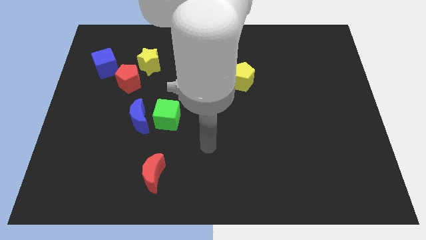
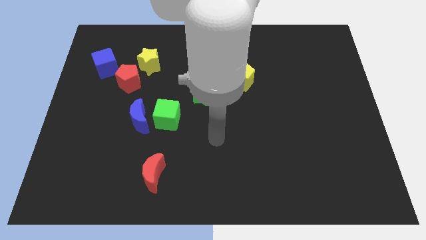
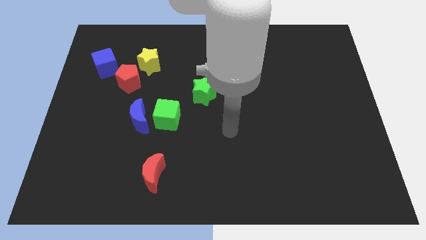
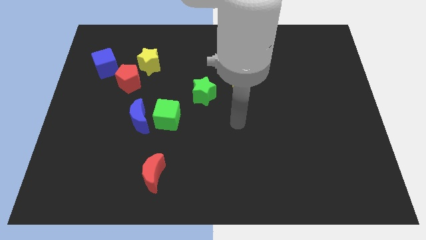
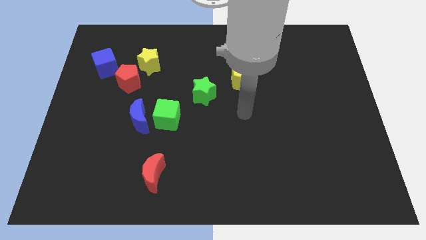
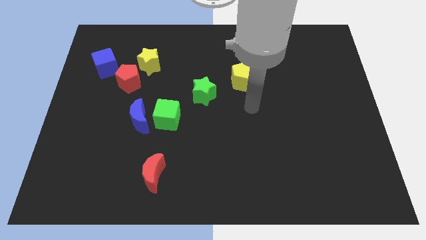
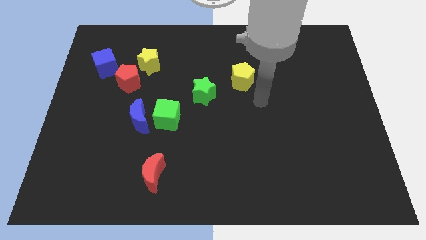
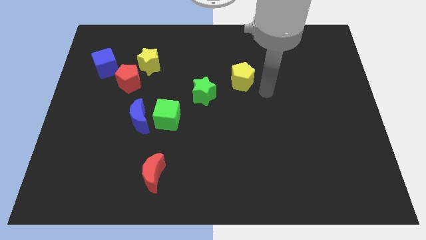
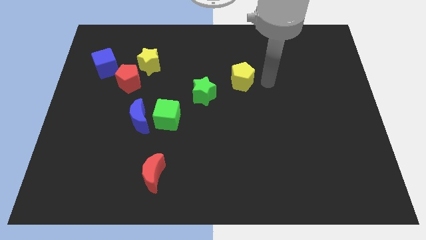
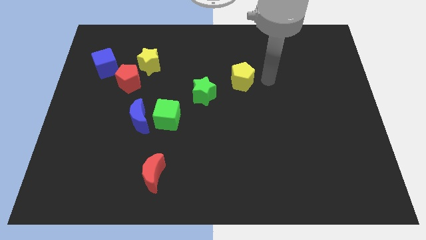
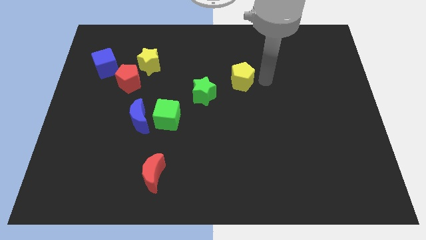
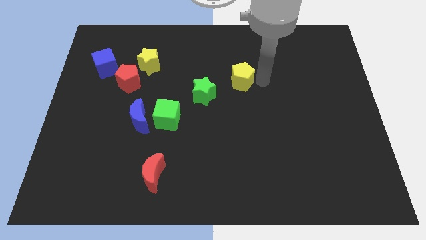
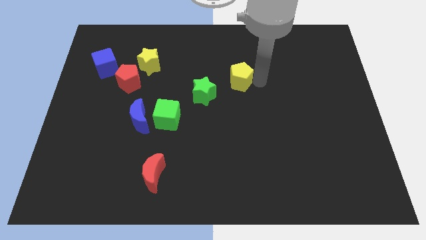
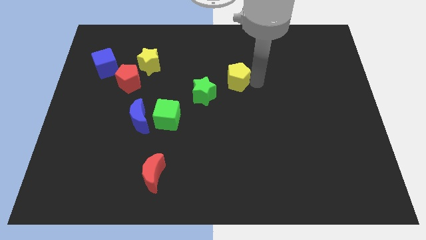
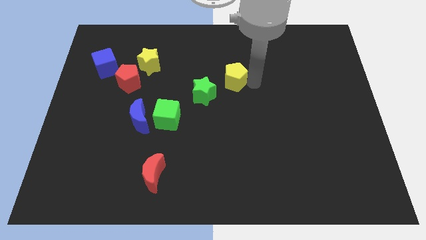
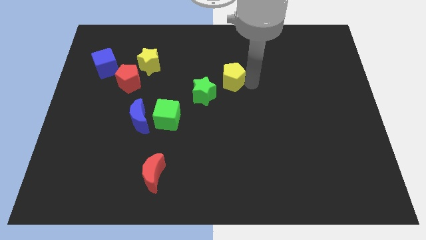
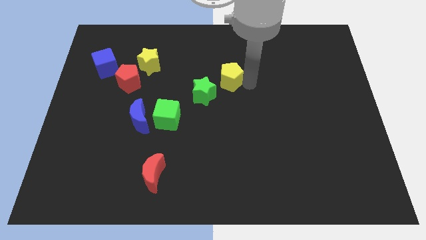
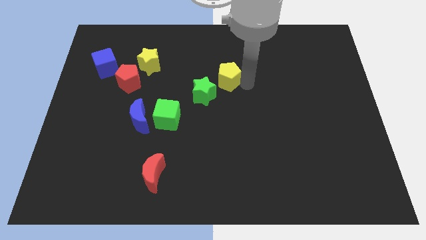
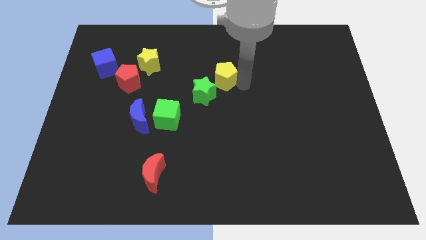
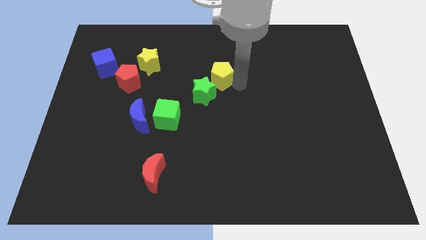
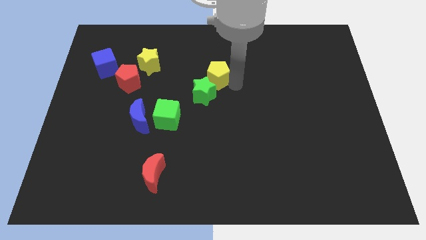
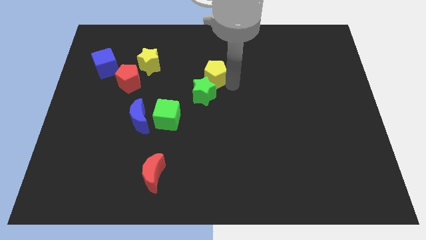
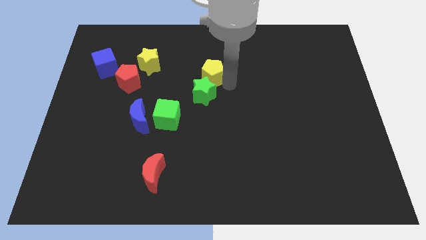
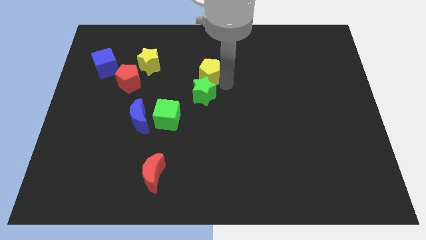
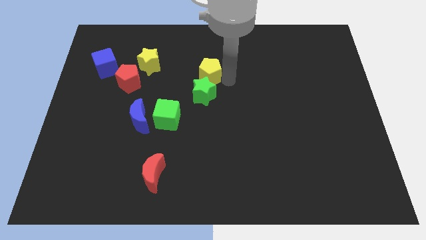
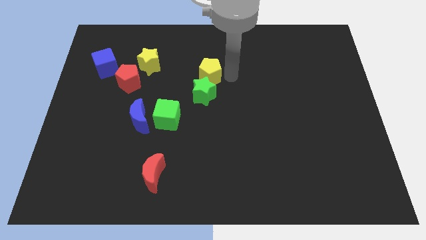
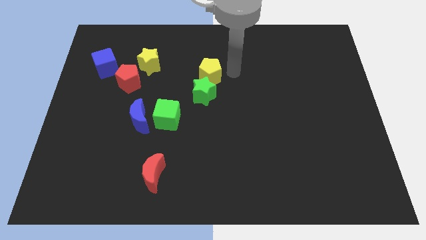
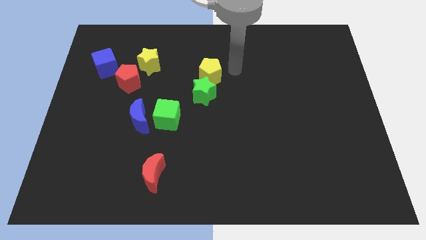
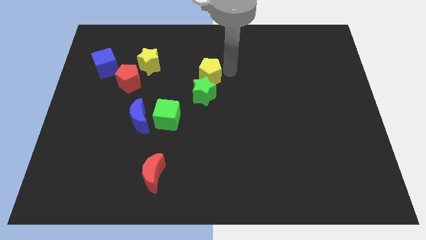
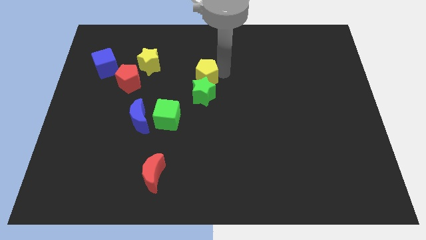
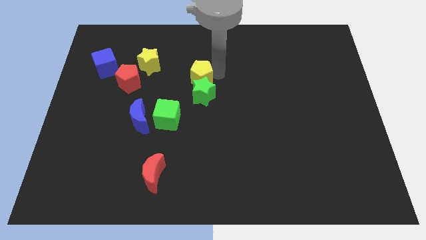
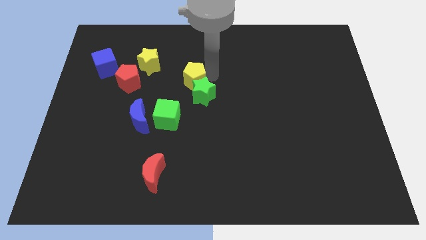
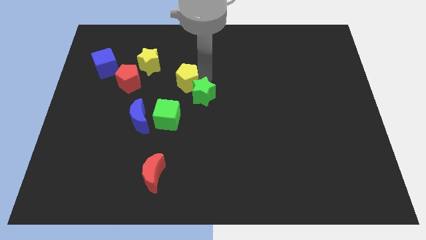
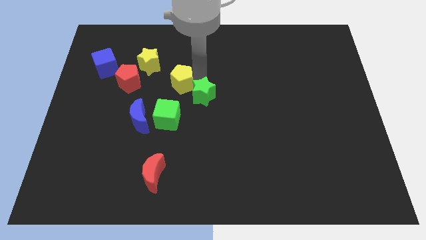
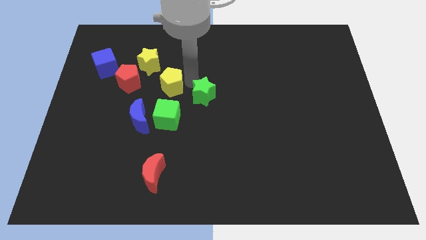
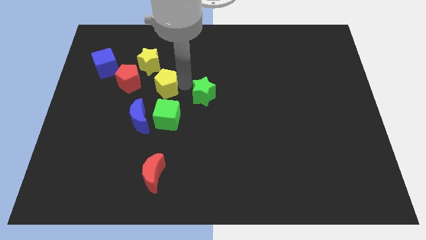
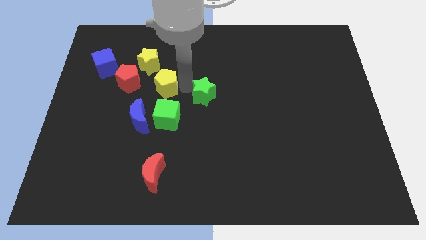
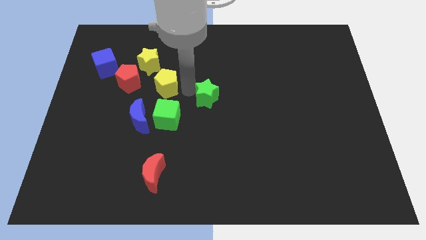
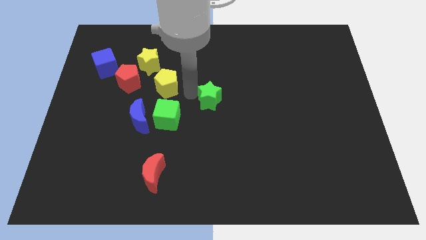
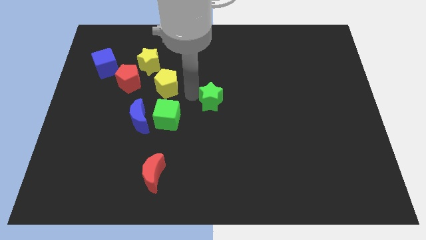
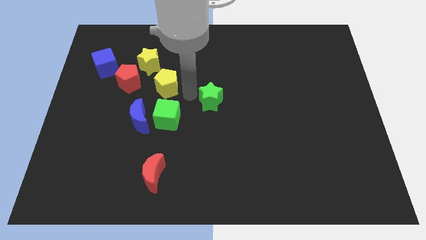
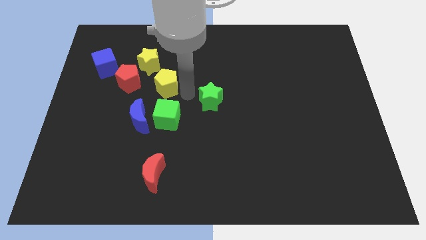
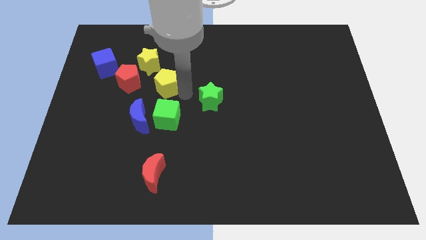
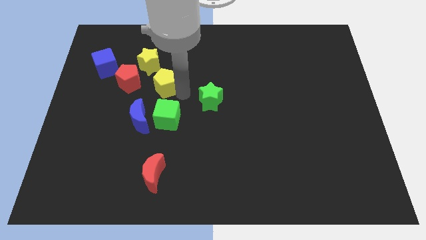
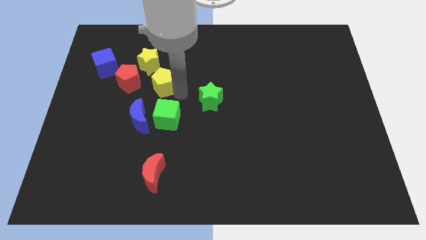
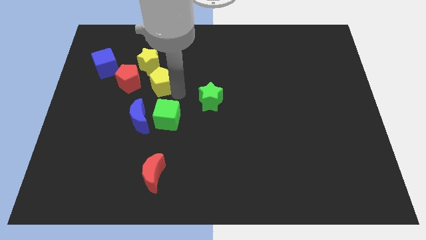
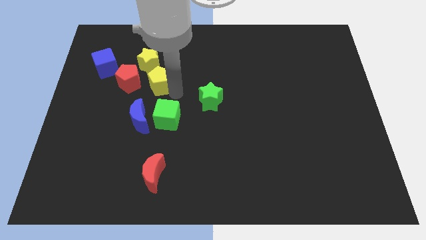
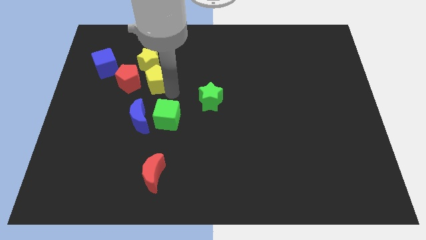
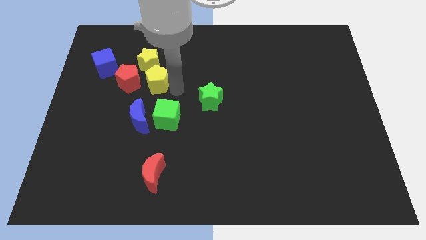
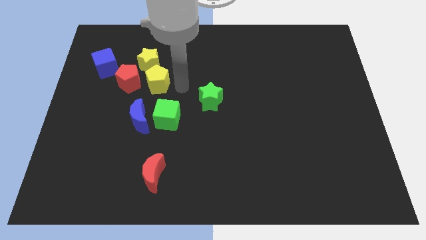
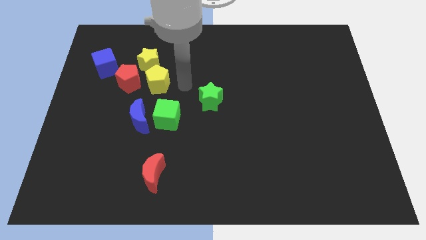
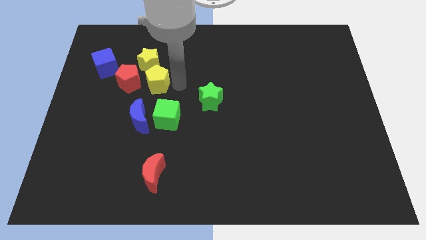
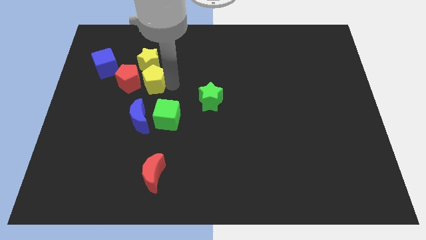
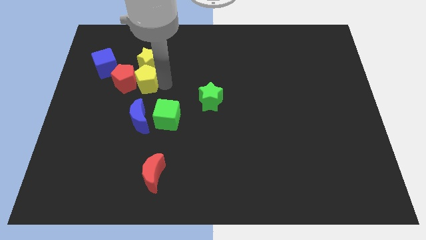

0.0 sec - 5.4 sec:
put the yellow pentagon to the red pentagon

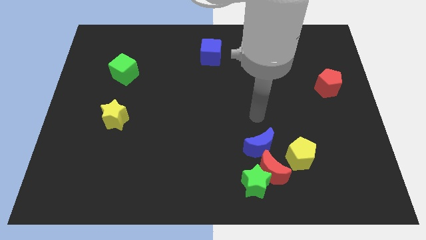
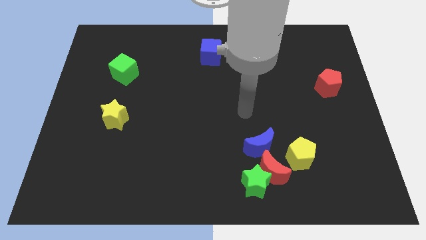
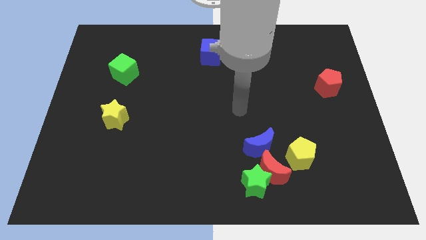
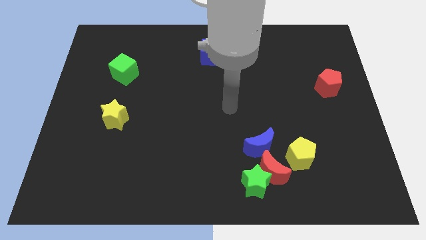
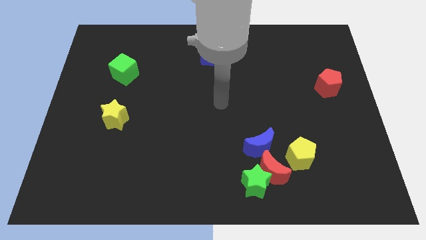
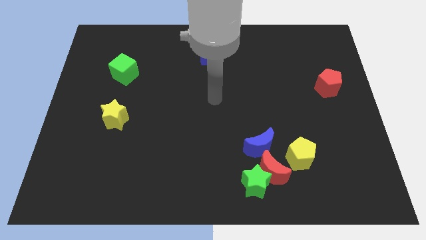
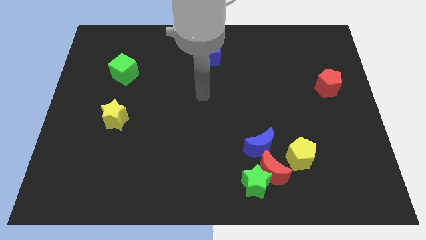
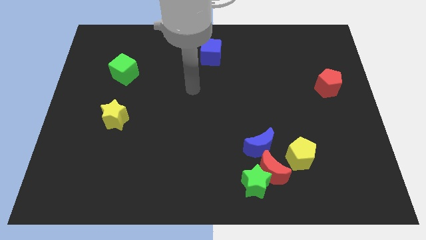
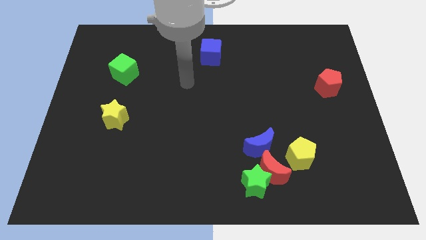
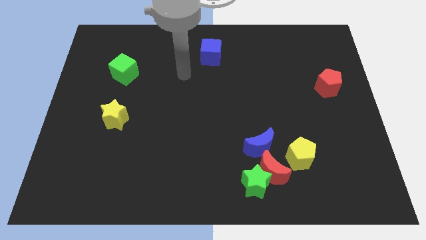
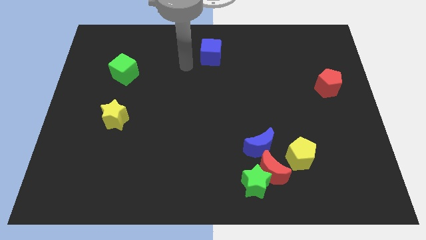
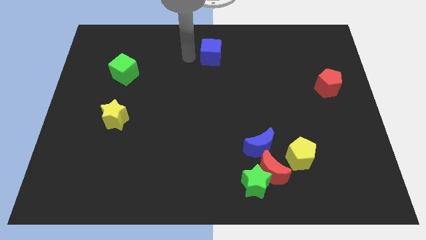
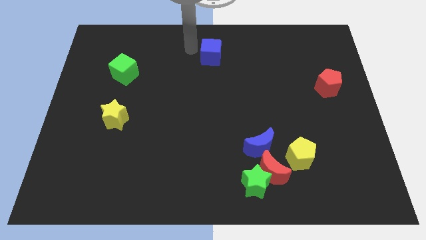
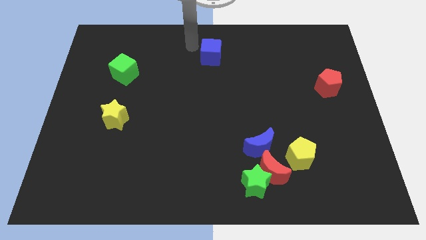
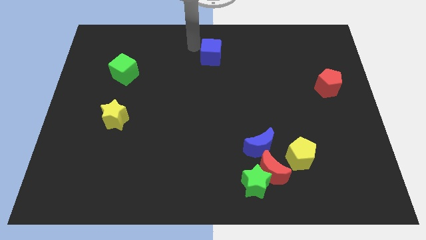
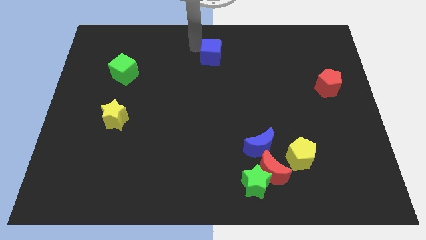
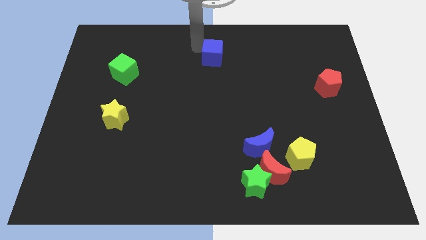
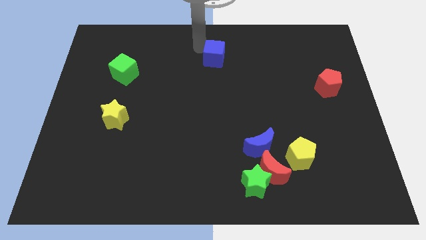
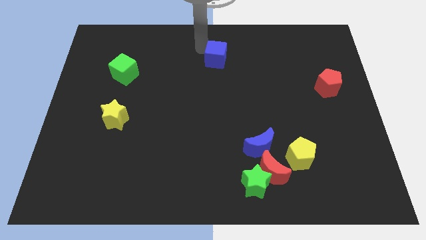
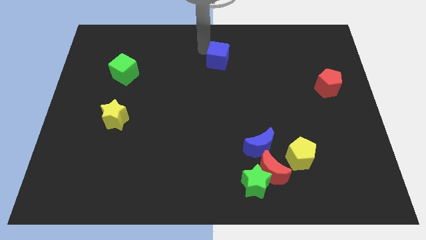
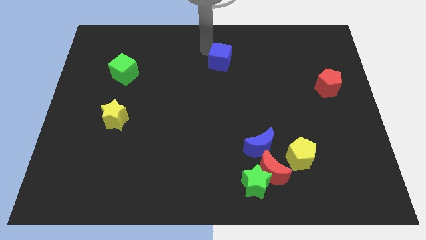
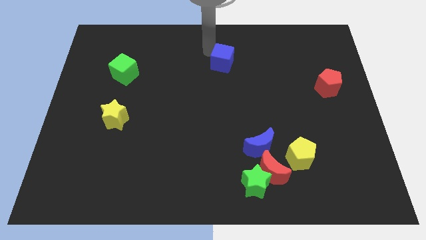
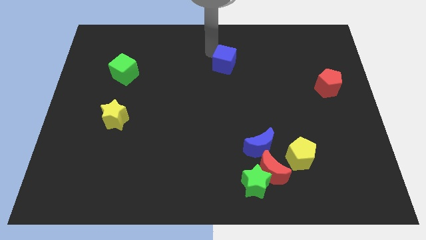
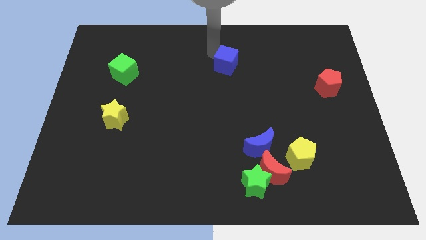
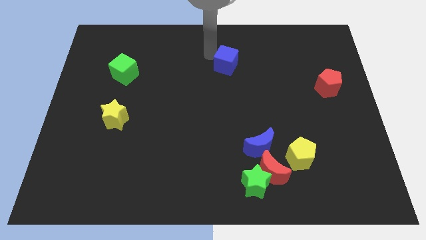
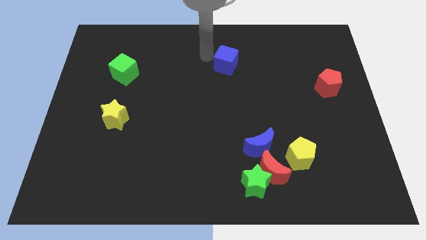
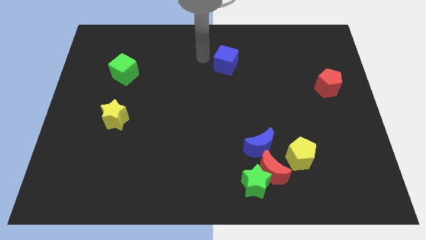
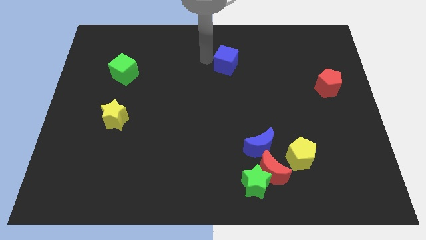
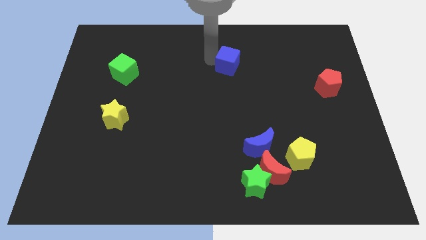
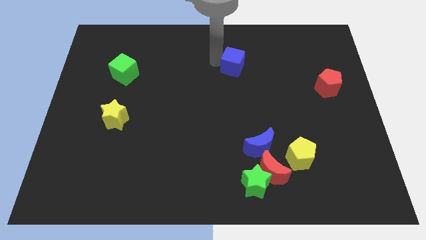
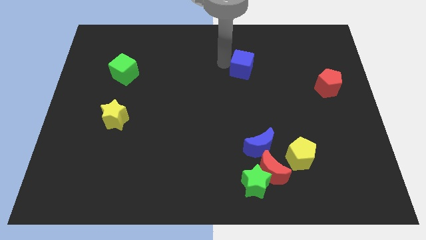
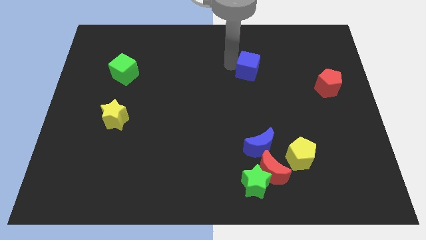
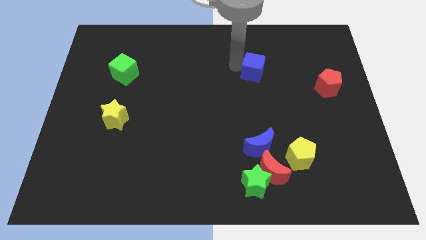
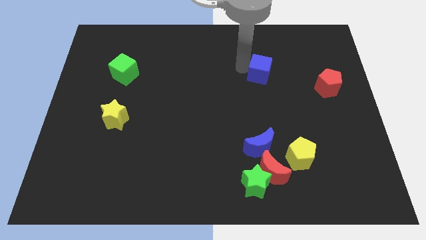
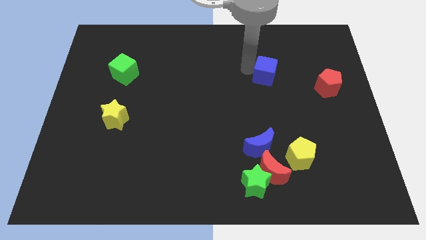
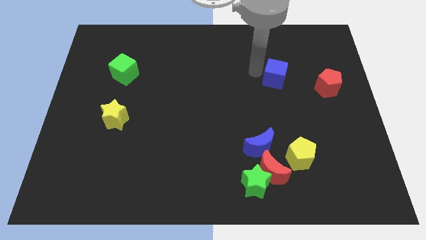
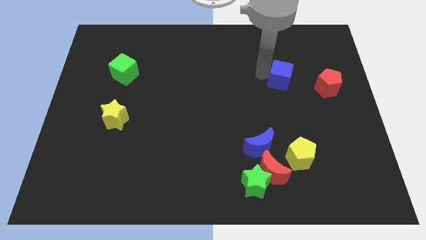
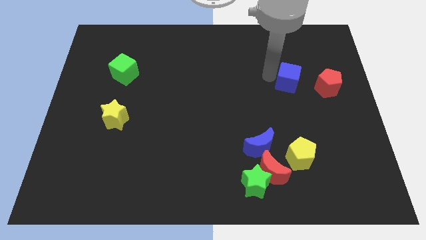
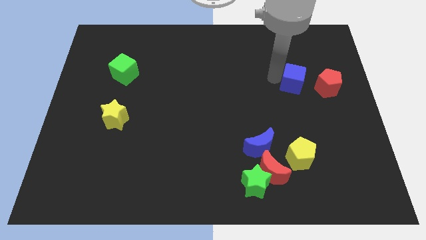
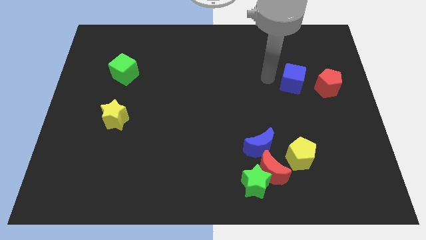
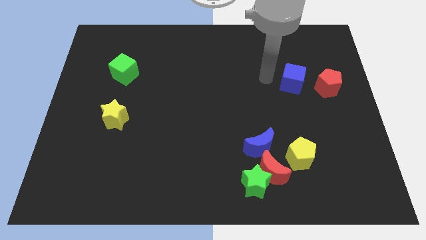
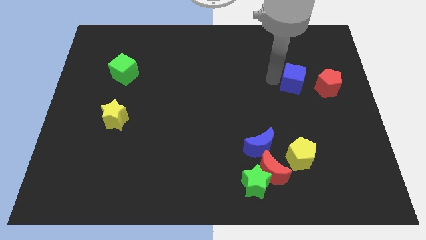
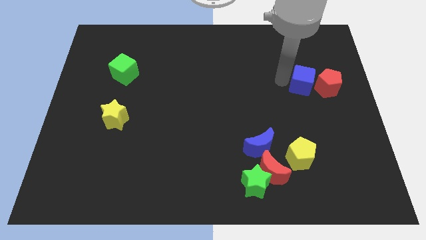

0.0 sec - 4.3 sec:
push the blue cube next to the red pentagon
